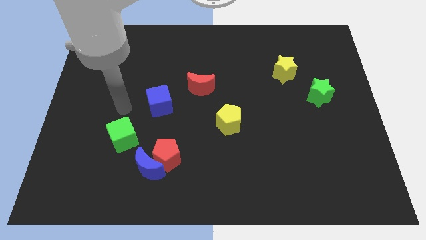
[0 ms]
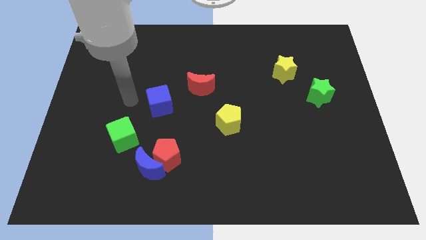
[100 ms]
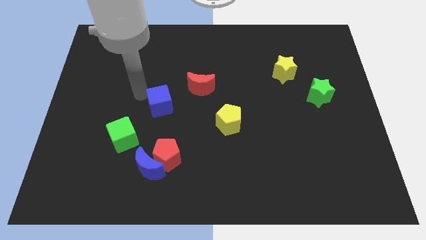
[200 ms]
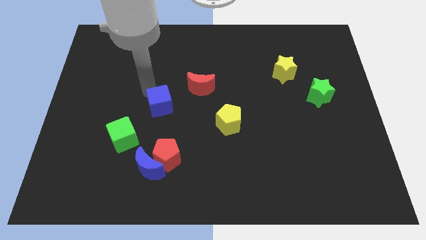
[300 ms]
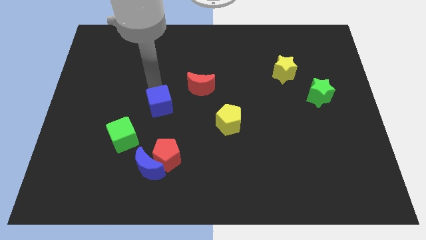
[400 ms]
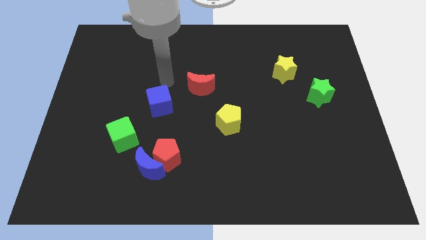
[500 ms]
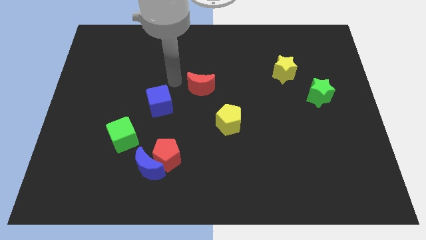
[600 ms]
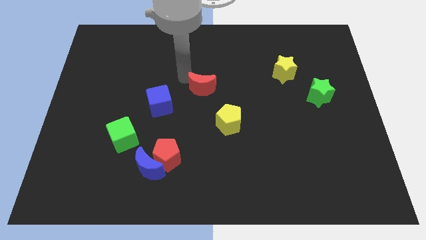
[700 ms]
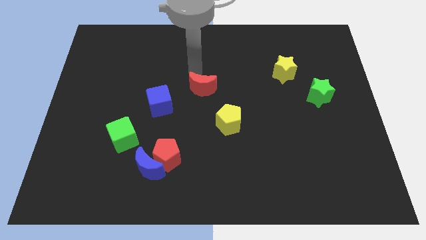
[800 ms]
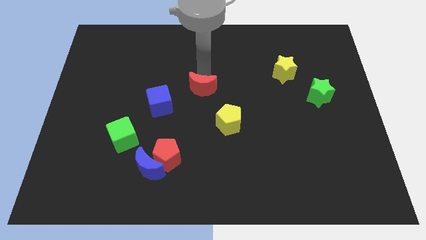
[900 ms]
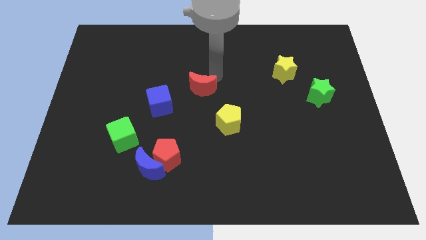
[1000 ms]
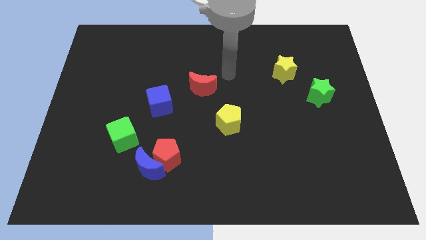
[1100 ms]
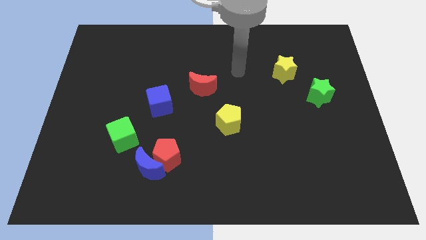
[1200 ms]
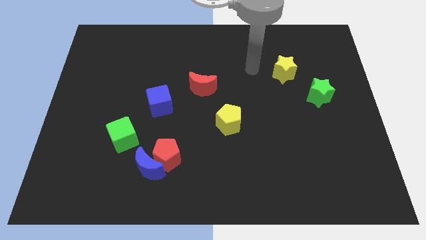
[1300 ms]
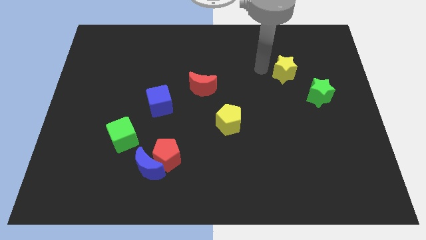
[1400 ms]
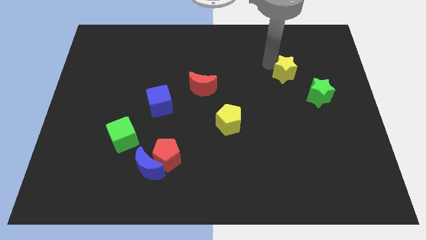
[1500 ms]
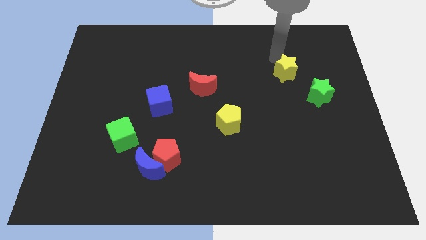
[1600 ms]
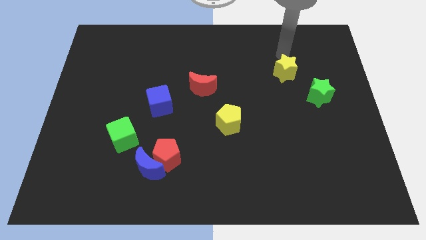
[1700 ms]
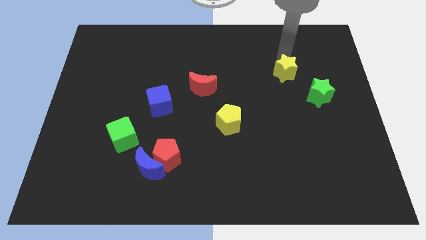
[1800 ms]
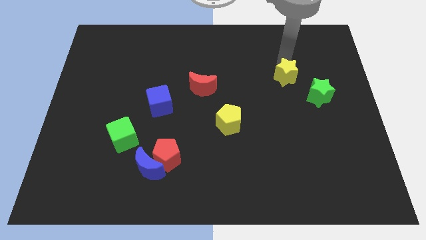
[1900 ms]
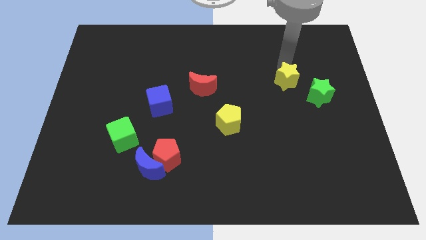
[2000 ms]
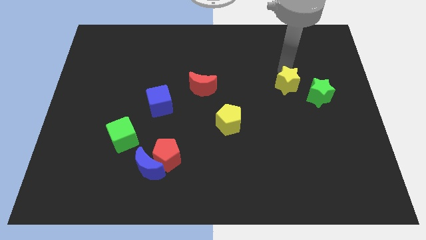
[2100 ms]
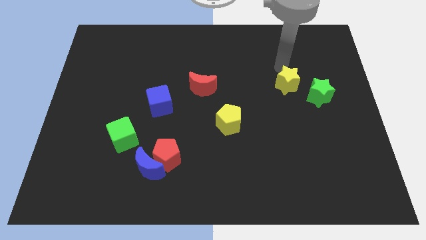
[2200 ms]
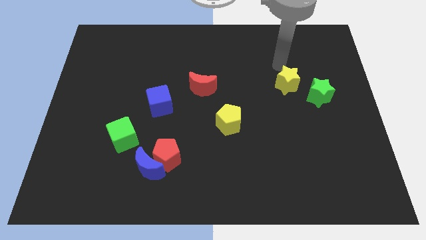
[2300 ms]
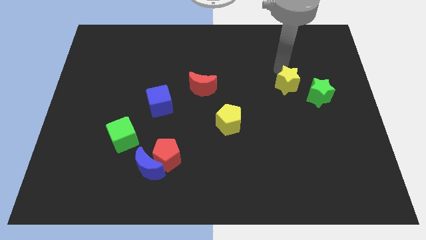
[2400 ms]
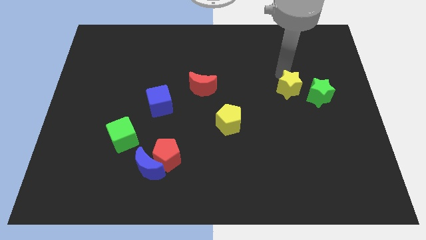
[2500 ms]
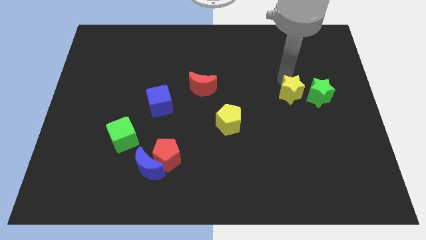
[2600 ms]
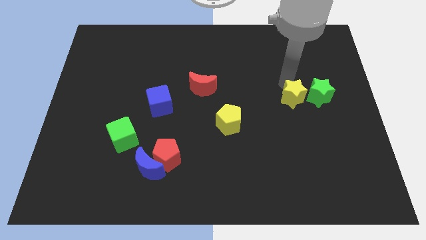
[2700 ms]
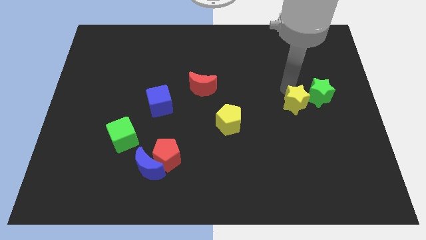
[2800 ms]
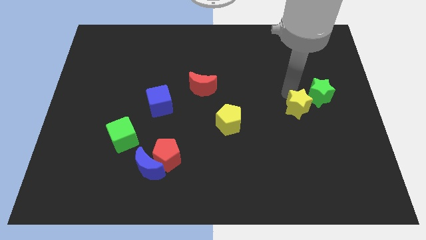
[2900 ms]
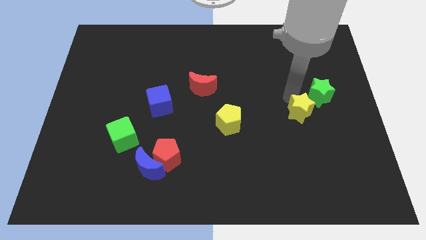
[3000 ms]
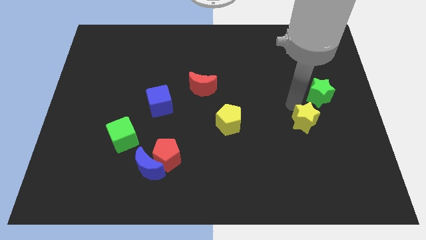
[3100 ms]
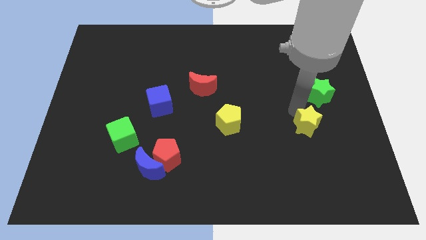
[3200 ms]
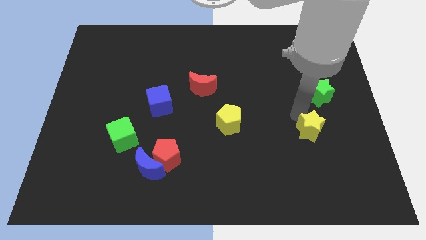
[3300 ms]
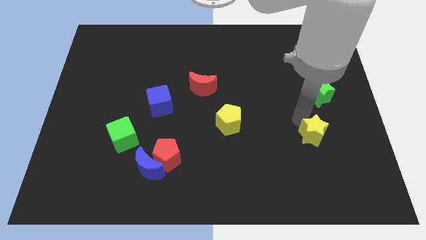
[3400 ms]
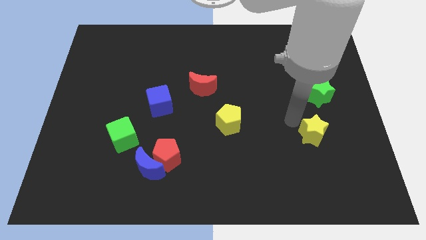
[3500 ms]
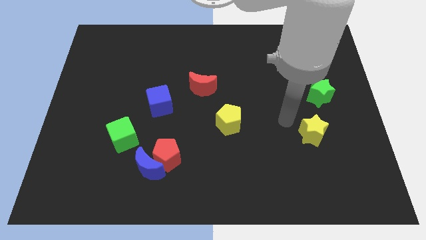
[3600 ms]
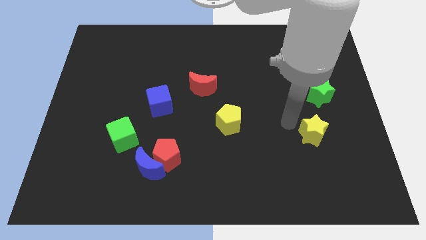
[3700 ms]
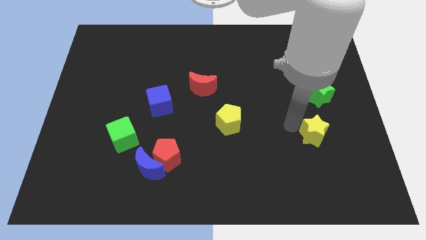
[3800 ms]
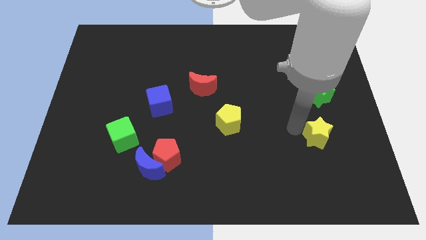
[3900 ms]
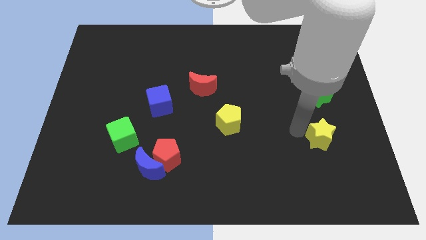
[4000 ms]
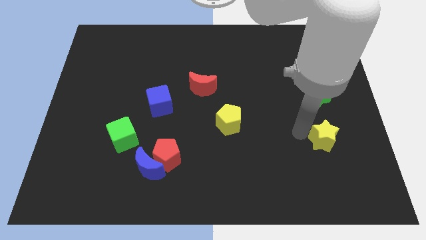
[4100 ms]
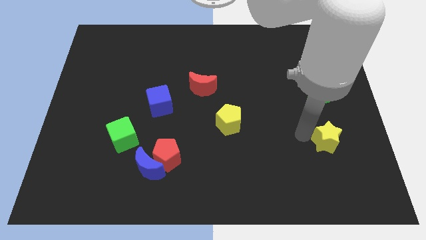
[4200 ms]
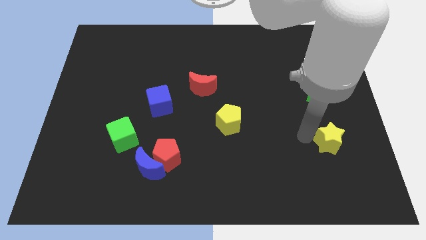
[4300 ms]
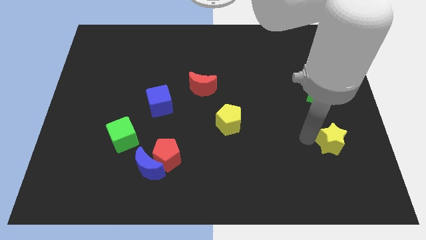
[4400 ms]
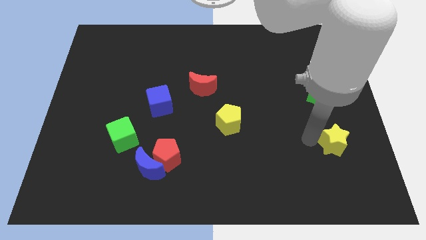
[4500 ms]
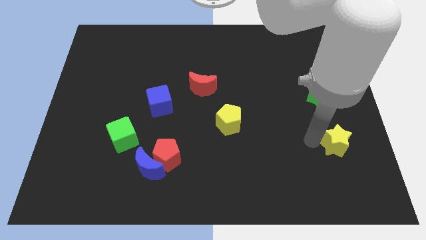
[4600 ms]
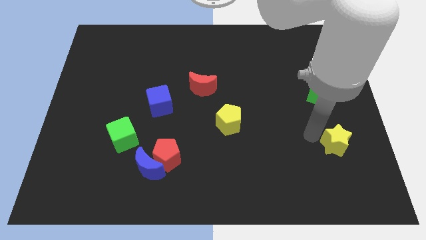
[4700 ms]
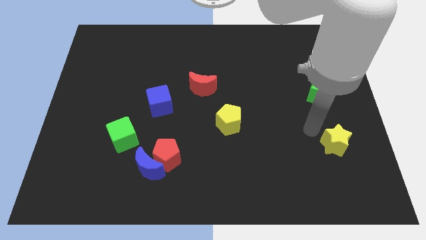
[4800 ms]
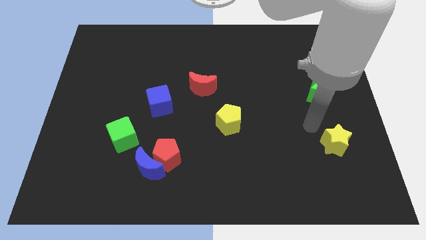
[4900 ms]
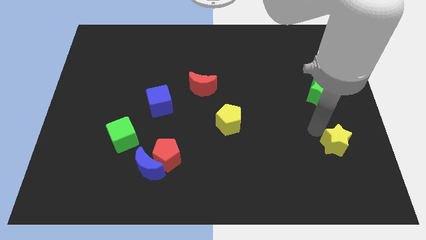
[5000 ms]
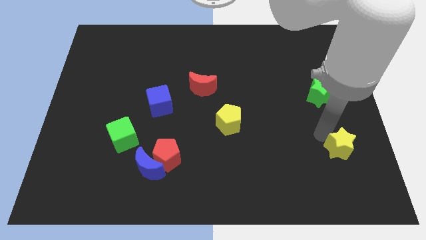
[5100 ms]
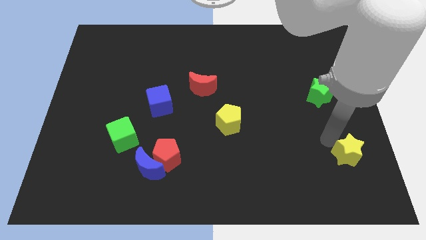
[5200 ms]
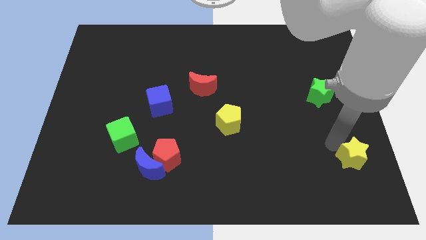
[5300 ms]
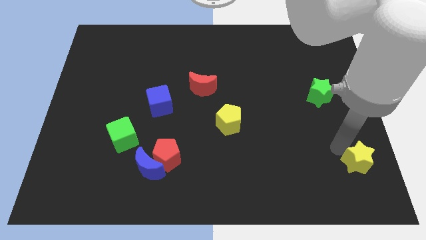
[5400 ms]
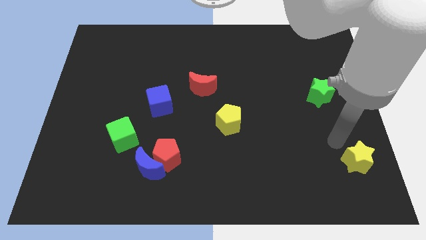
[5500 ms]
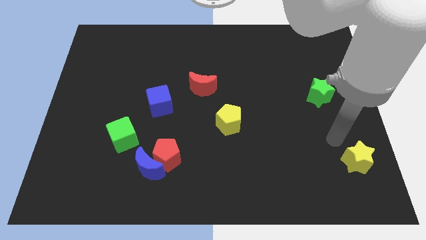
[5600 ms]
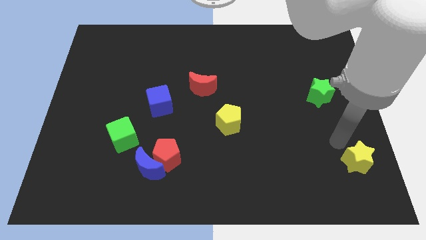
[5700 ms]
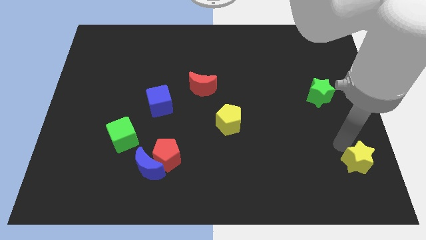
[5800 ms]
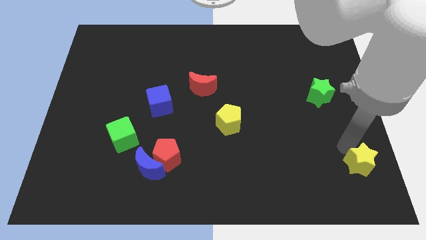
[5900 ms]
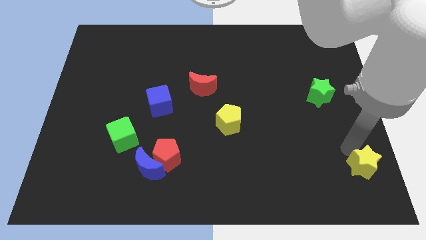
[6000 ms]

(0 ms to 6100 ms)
push the yellow star to the bottom right

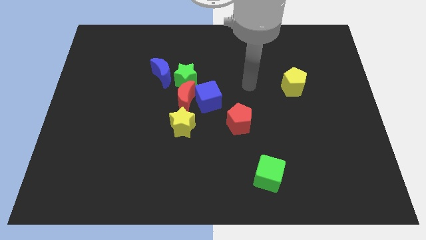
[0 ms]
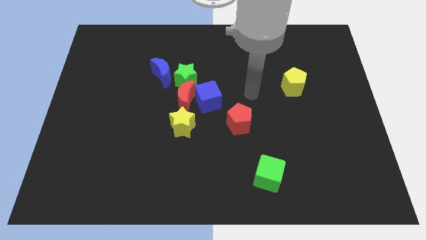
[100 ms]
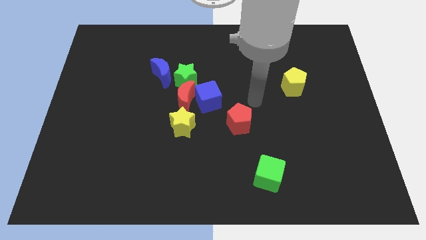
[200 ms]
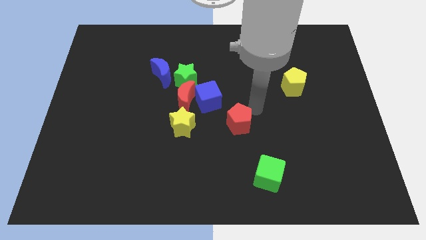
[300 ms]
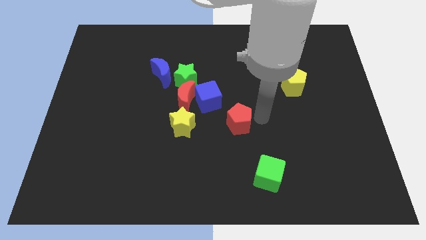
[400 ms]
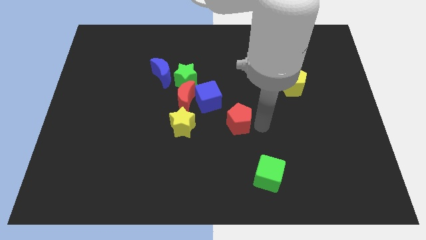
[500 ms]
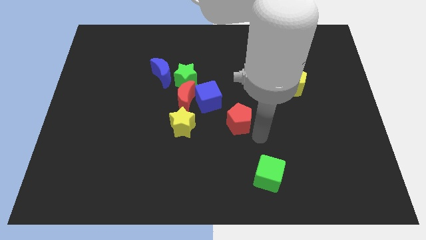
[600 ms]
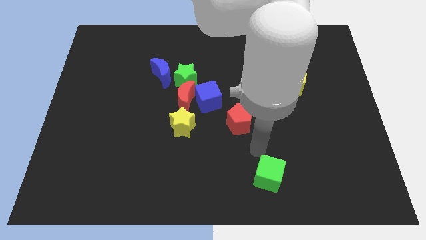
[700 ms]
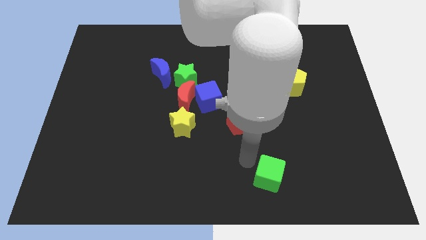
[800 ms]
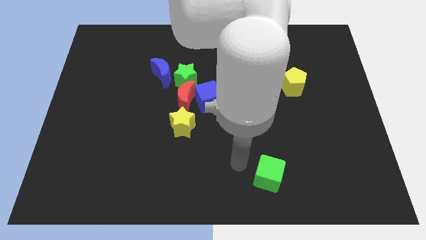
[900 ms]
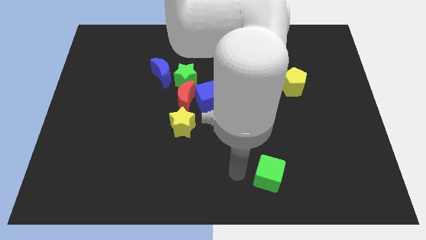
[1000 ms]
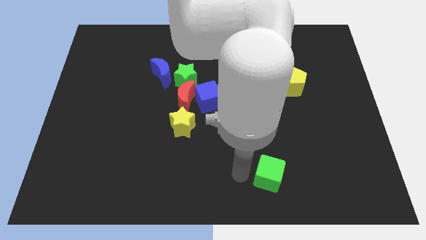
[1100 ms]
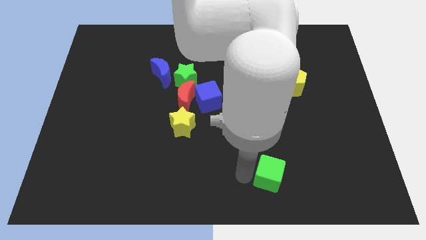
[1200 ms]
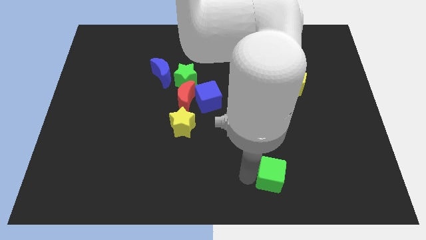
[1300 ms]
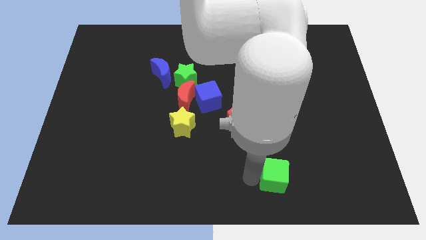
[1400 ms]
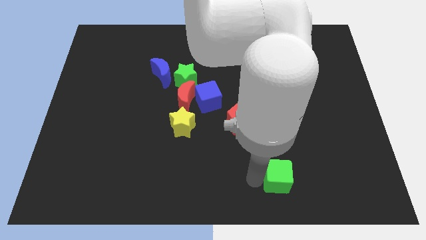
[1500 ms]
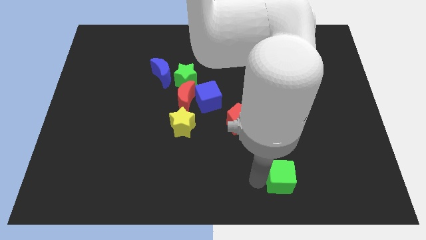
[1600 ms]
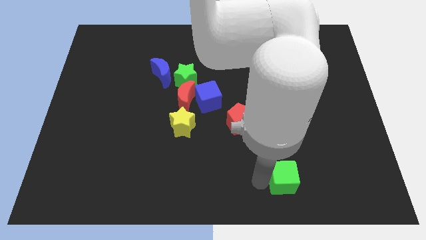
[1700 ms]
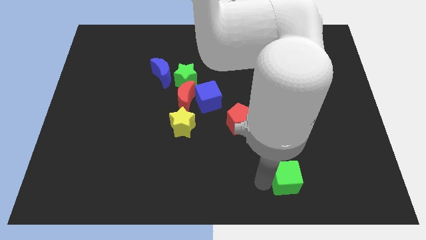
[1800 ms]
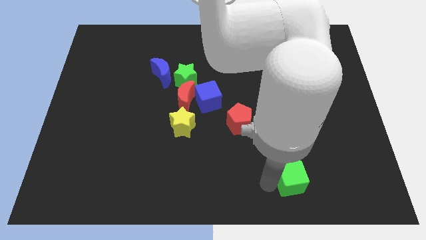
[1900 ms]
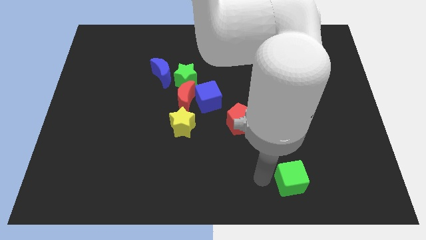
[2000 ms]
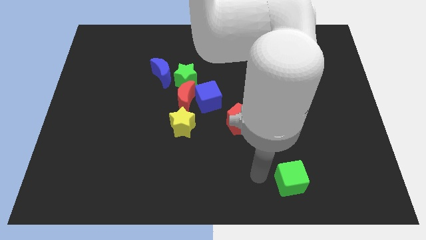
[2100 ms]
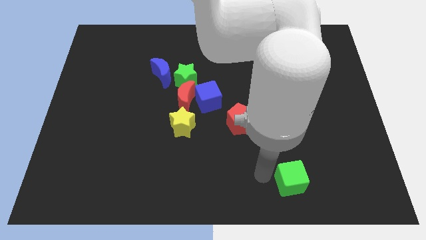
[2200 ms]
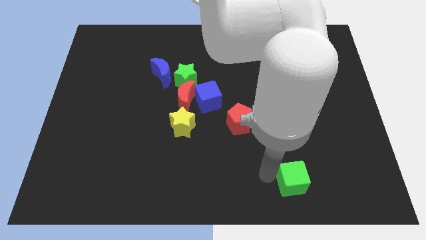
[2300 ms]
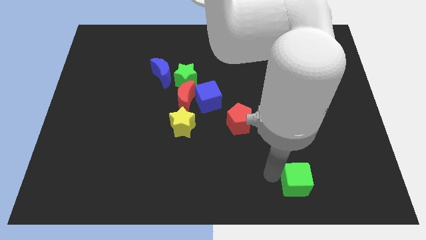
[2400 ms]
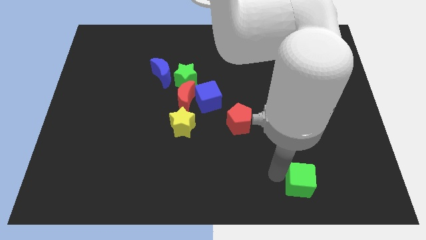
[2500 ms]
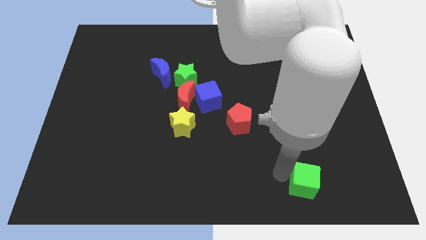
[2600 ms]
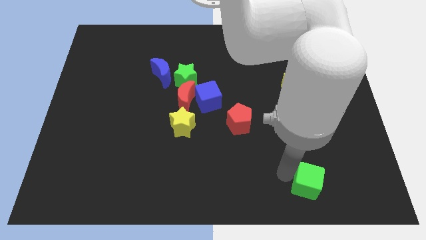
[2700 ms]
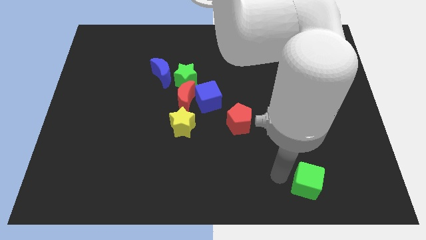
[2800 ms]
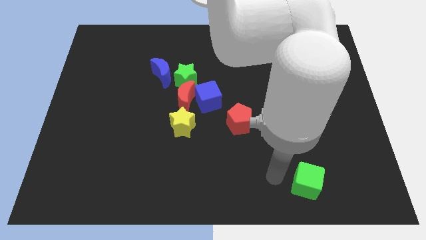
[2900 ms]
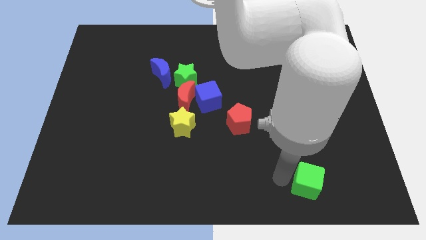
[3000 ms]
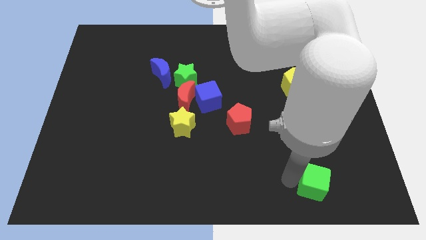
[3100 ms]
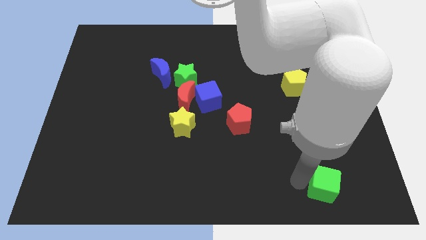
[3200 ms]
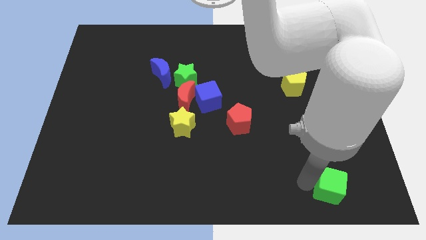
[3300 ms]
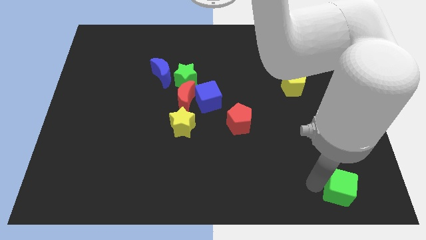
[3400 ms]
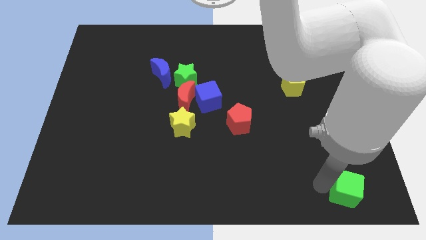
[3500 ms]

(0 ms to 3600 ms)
put the green cube to the bottom right
